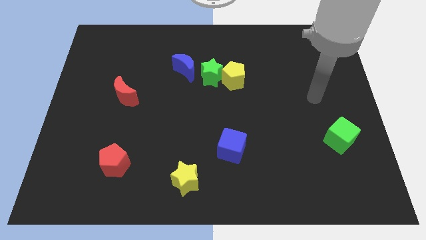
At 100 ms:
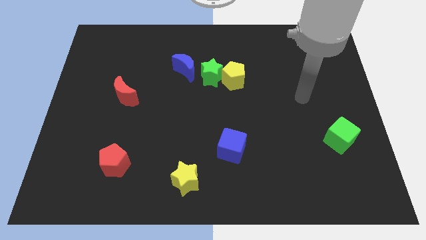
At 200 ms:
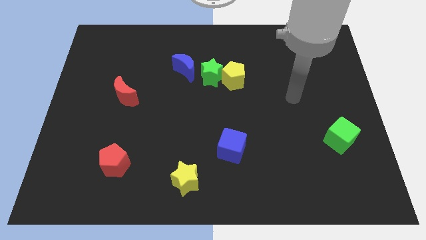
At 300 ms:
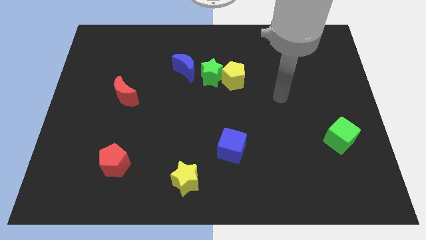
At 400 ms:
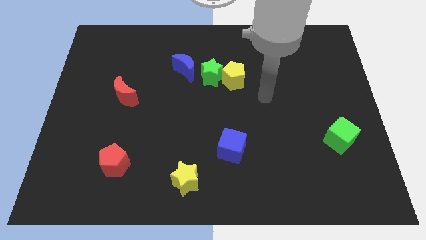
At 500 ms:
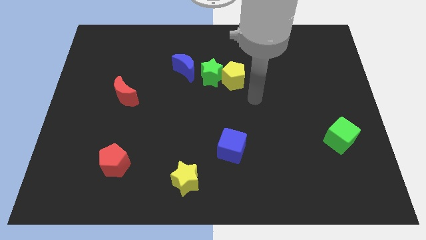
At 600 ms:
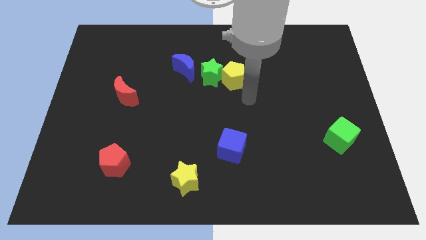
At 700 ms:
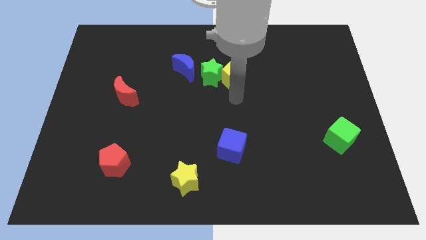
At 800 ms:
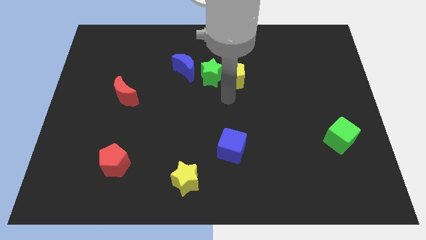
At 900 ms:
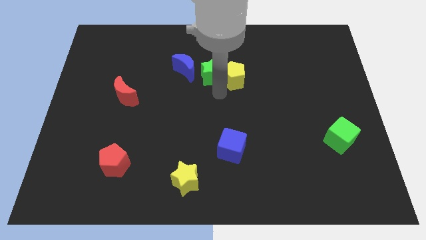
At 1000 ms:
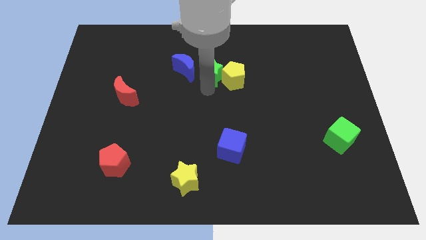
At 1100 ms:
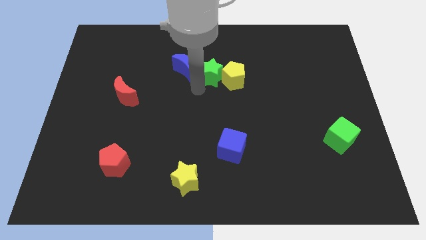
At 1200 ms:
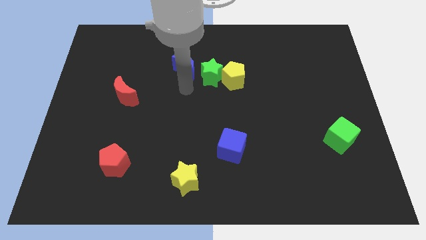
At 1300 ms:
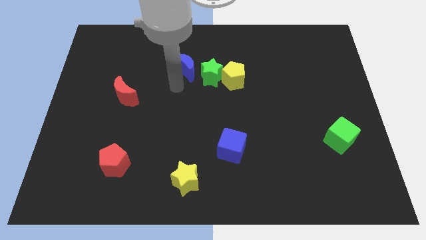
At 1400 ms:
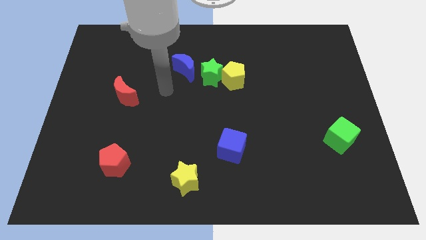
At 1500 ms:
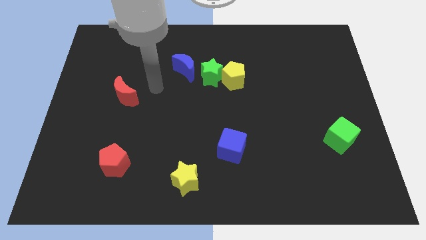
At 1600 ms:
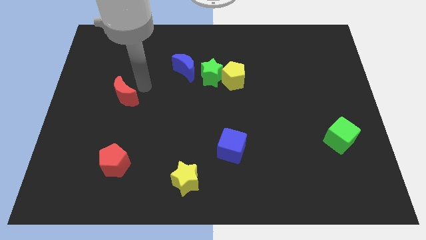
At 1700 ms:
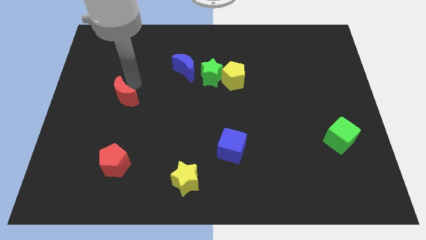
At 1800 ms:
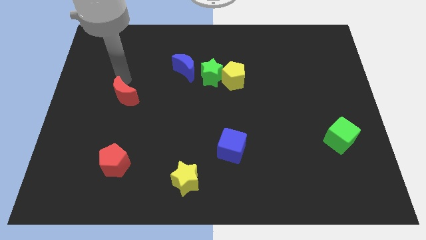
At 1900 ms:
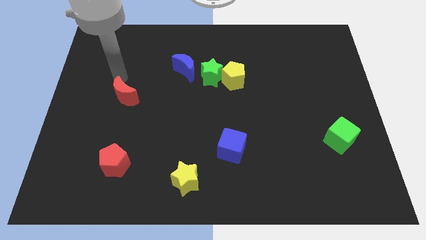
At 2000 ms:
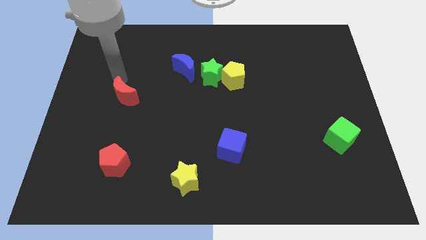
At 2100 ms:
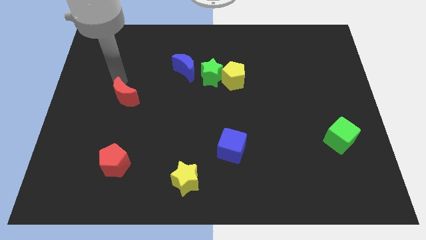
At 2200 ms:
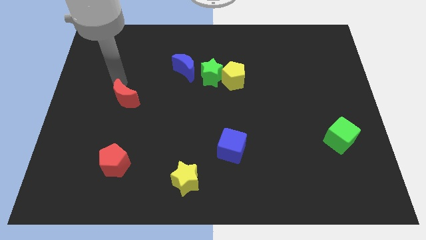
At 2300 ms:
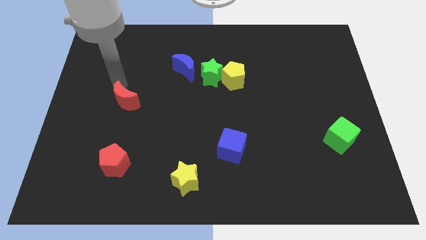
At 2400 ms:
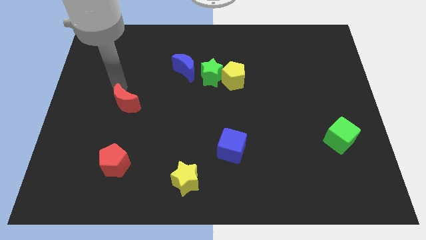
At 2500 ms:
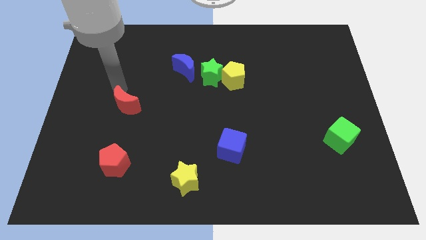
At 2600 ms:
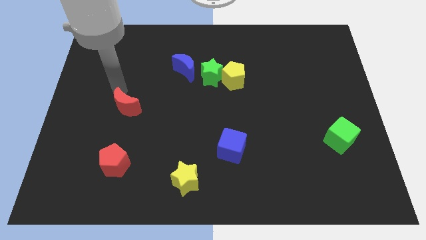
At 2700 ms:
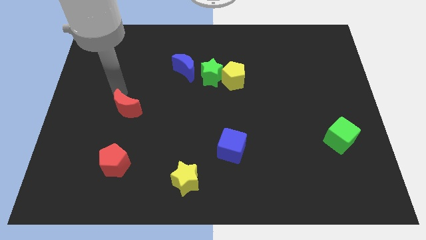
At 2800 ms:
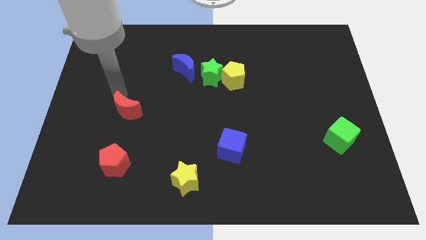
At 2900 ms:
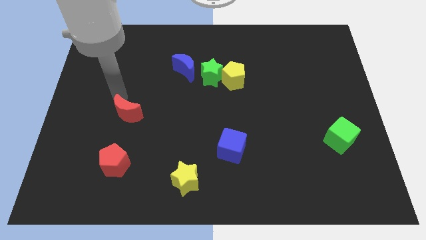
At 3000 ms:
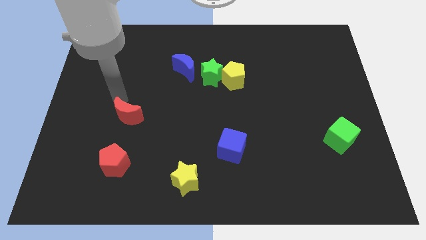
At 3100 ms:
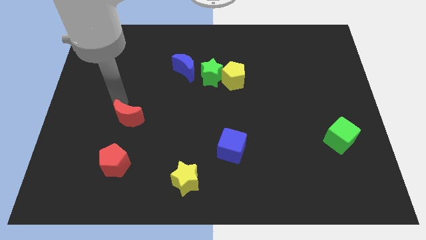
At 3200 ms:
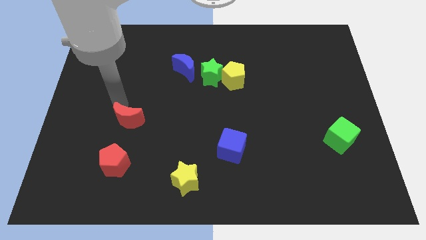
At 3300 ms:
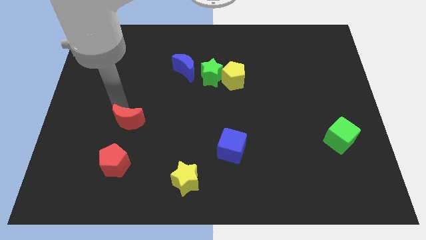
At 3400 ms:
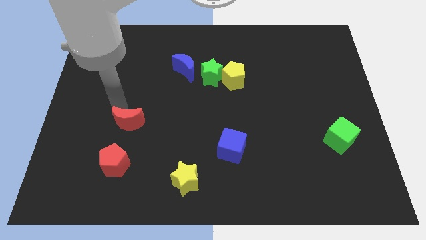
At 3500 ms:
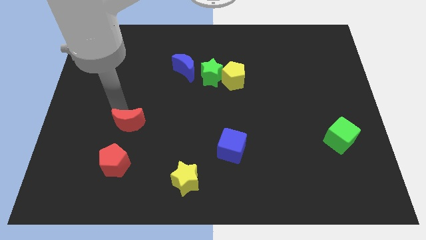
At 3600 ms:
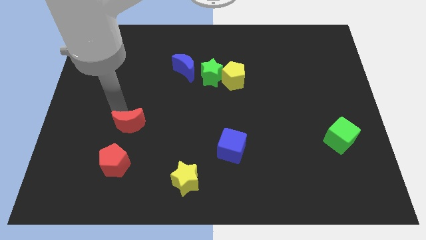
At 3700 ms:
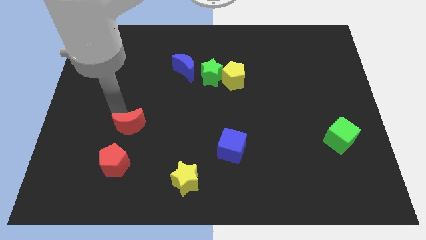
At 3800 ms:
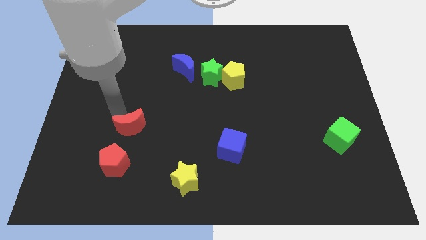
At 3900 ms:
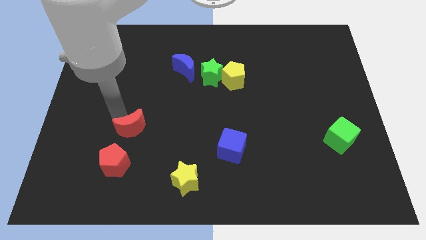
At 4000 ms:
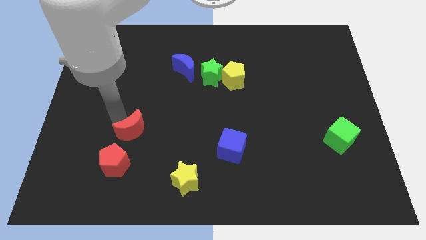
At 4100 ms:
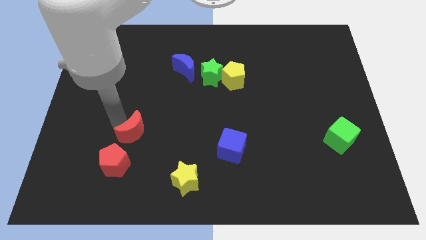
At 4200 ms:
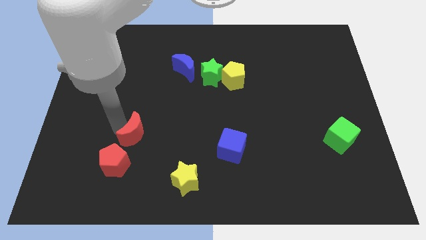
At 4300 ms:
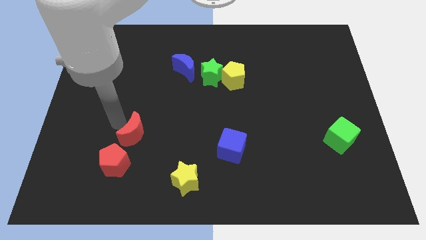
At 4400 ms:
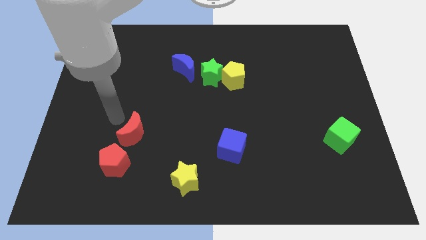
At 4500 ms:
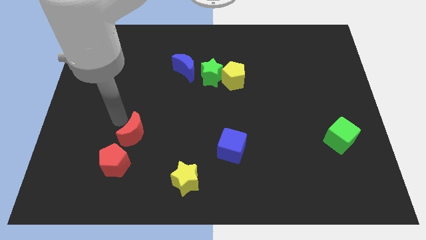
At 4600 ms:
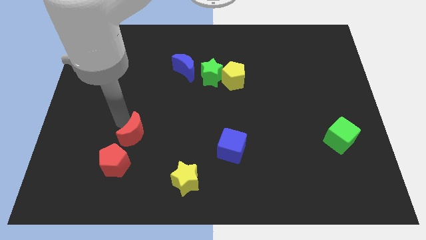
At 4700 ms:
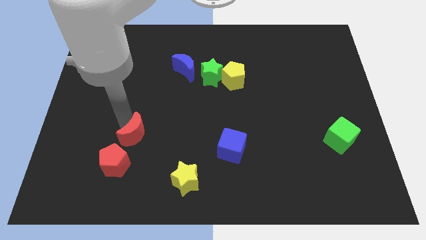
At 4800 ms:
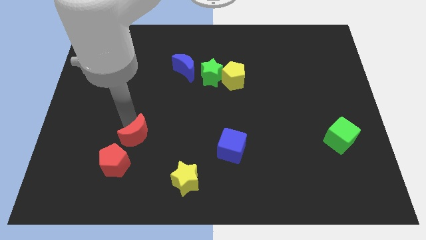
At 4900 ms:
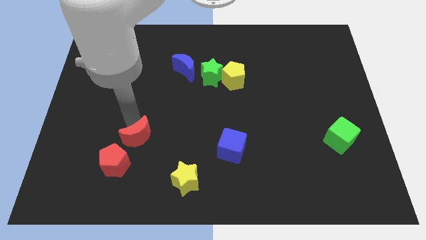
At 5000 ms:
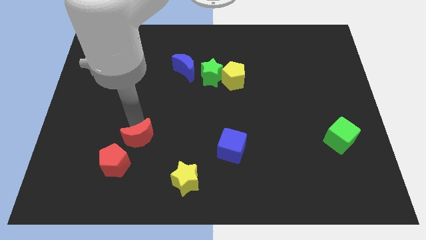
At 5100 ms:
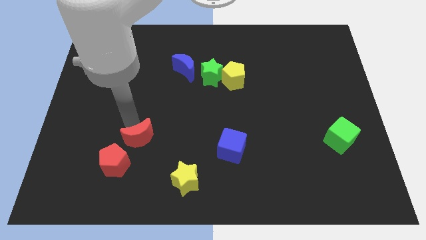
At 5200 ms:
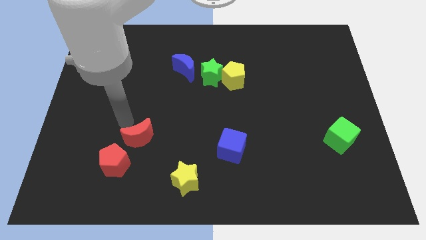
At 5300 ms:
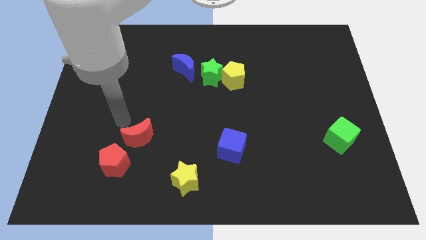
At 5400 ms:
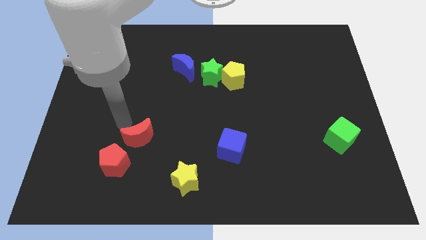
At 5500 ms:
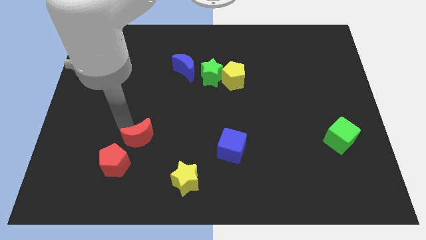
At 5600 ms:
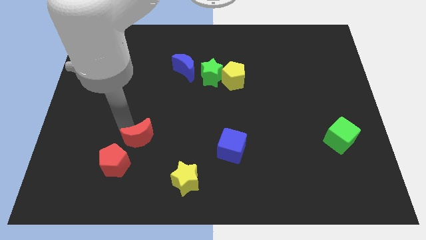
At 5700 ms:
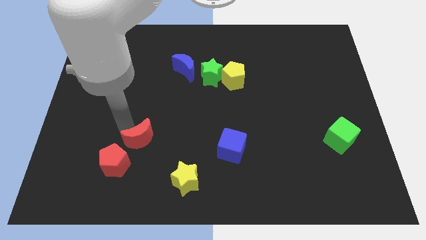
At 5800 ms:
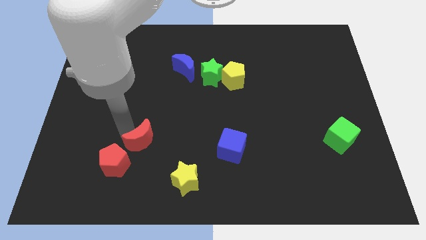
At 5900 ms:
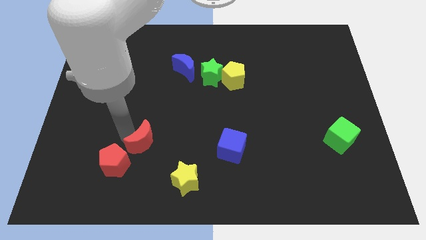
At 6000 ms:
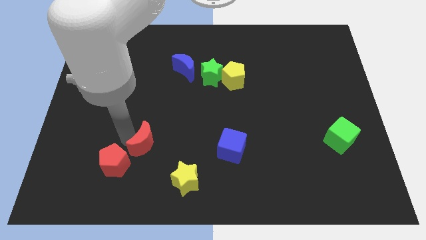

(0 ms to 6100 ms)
move the red moon to the top left of the yellow star

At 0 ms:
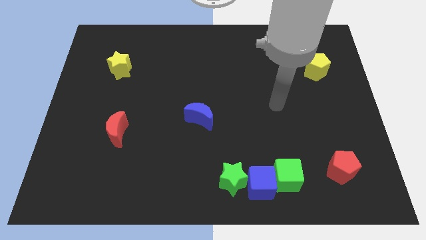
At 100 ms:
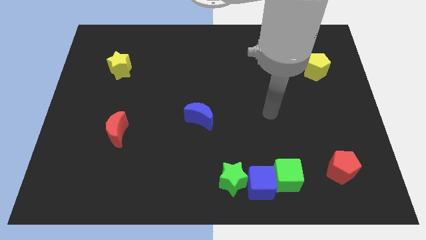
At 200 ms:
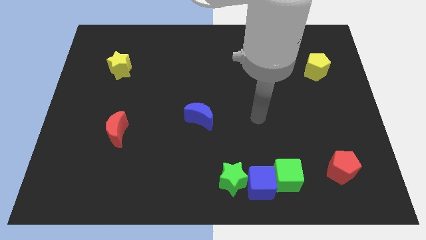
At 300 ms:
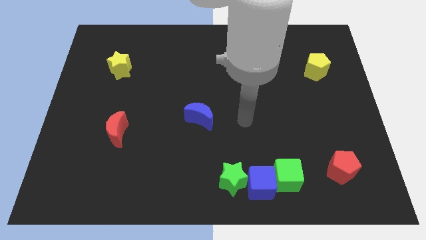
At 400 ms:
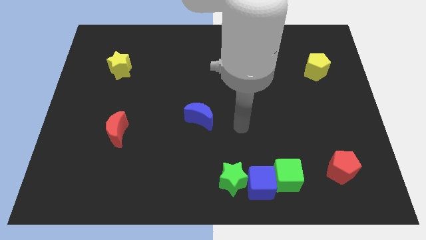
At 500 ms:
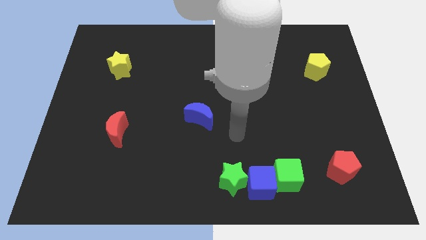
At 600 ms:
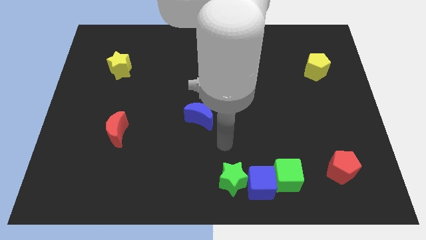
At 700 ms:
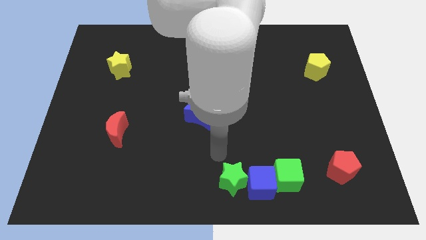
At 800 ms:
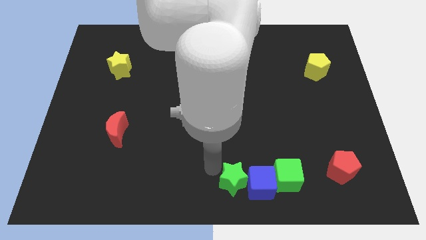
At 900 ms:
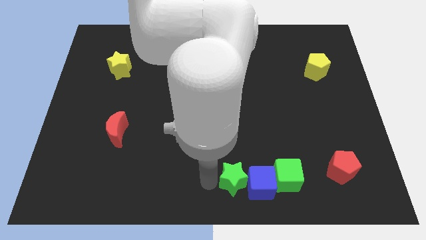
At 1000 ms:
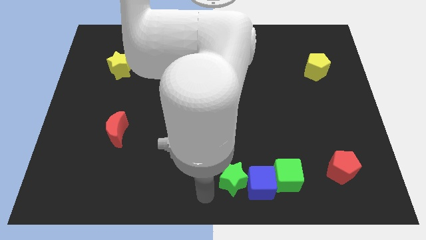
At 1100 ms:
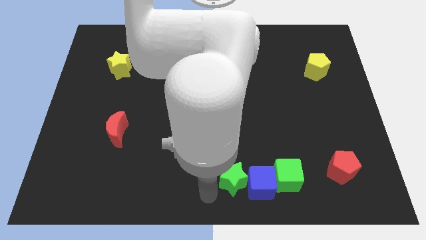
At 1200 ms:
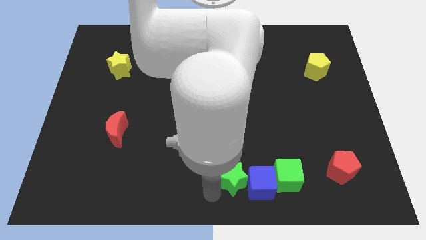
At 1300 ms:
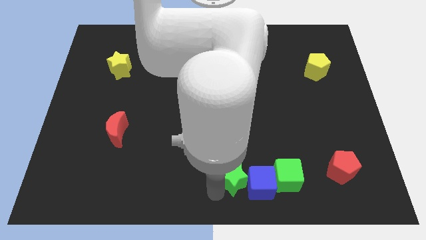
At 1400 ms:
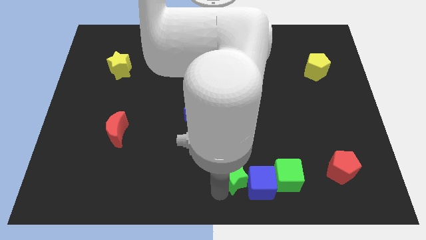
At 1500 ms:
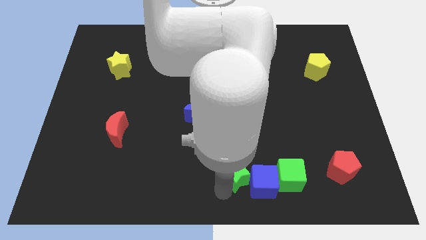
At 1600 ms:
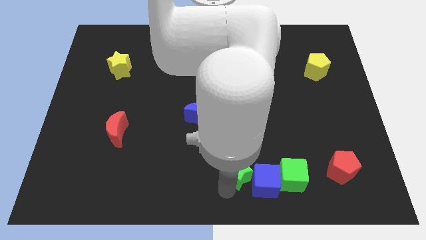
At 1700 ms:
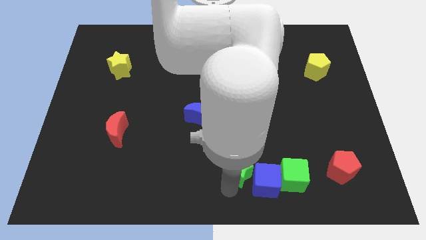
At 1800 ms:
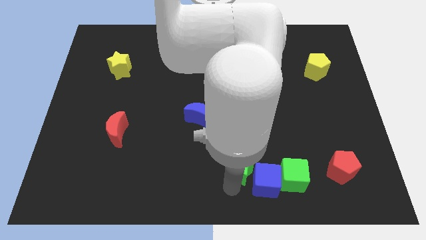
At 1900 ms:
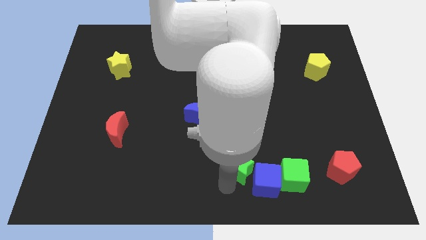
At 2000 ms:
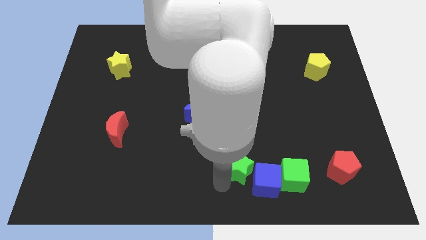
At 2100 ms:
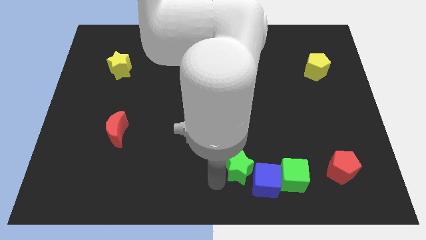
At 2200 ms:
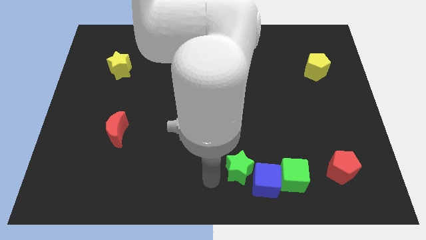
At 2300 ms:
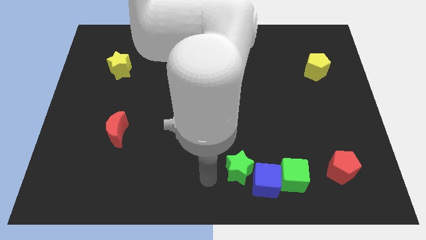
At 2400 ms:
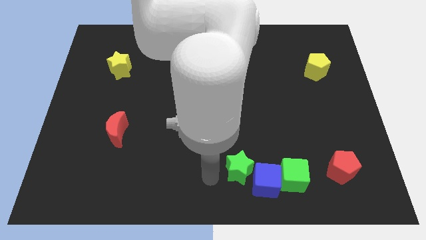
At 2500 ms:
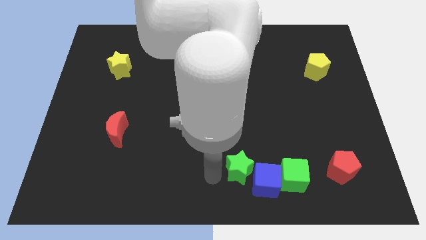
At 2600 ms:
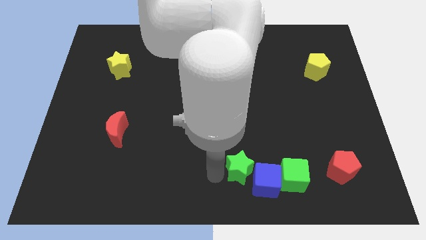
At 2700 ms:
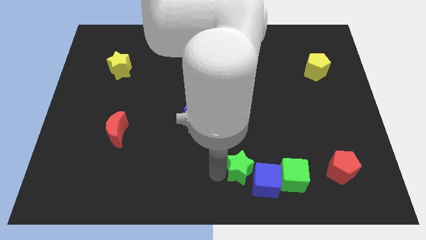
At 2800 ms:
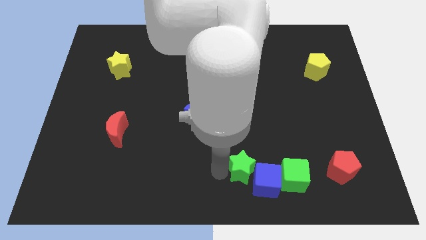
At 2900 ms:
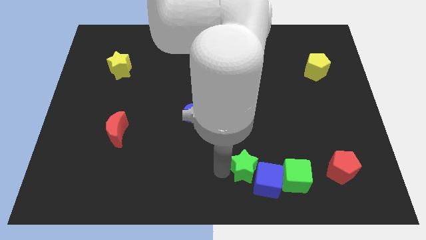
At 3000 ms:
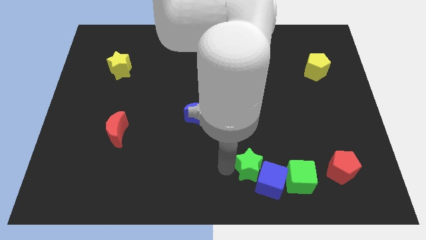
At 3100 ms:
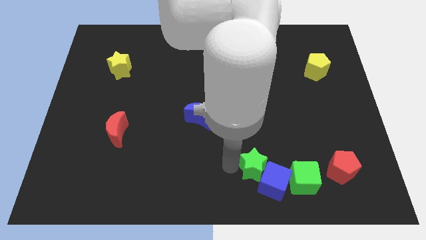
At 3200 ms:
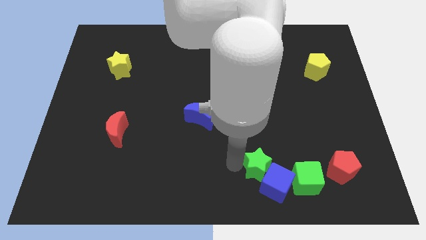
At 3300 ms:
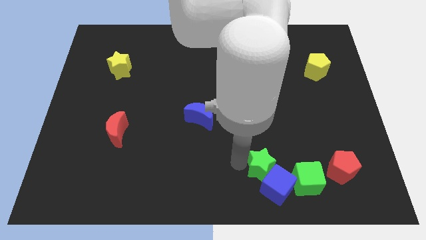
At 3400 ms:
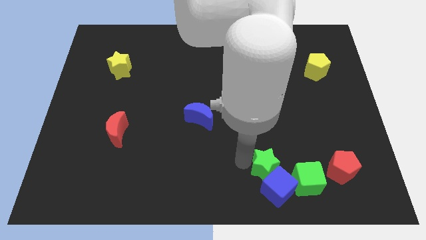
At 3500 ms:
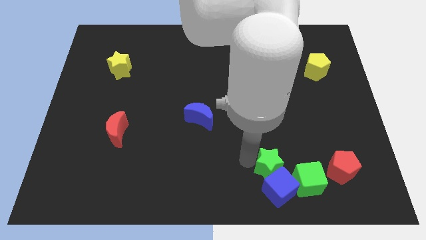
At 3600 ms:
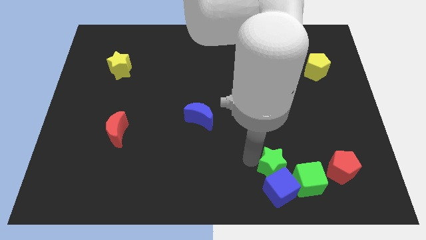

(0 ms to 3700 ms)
push the green star diagonally up and to the right of the blue cube
